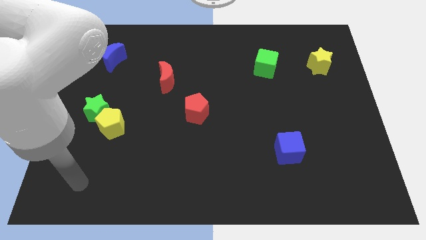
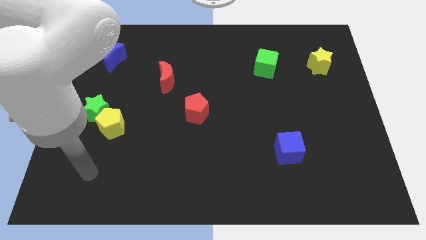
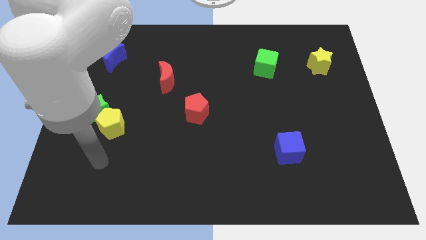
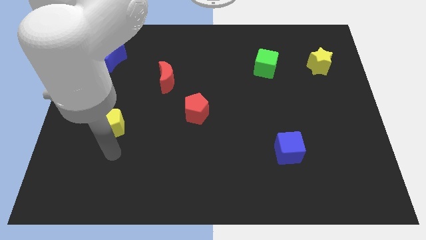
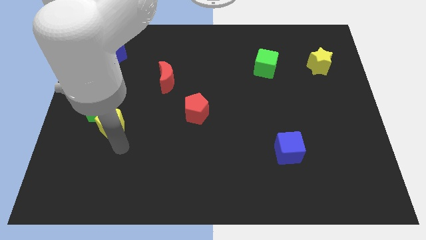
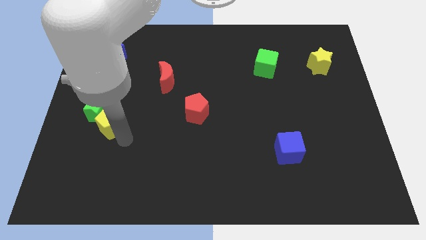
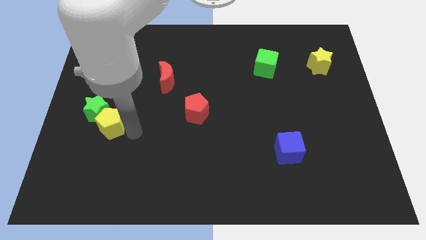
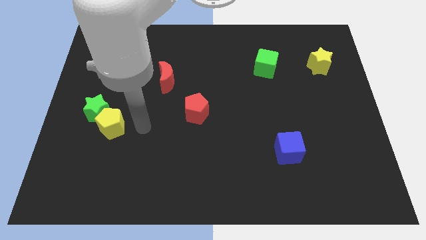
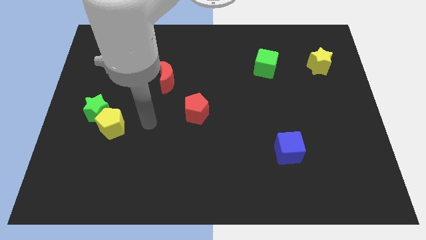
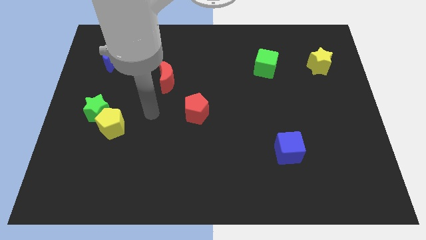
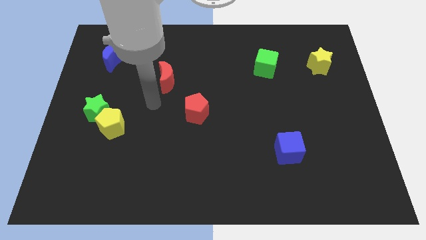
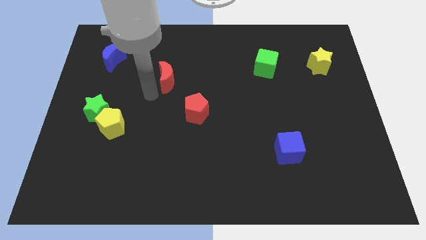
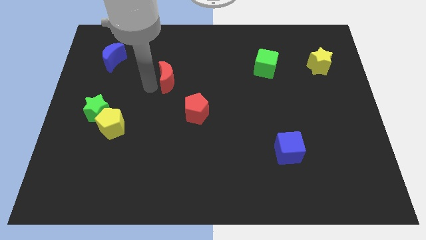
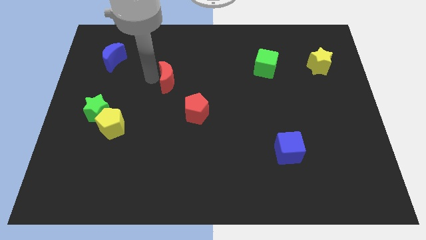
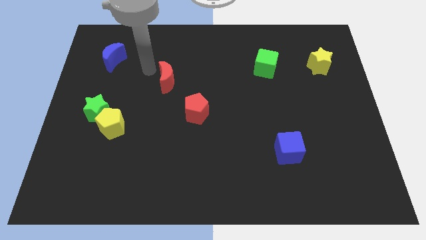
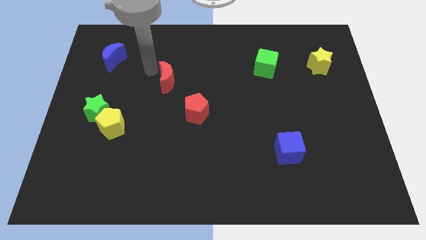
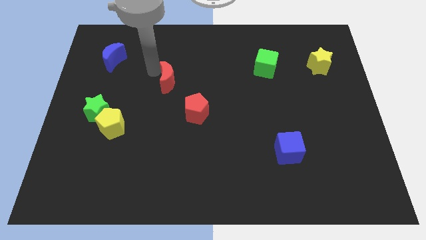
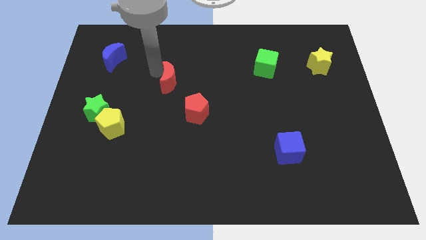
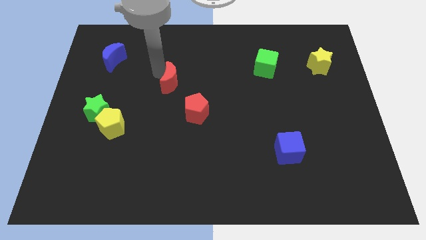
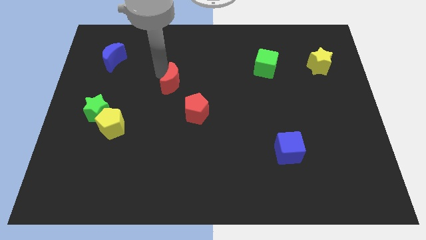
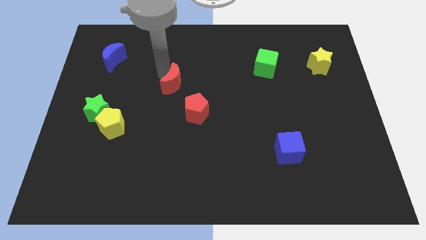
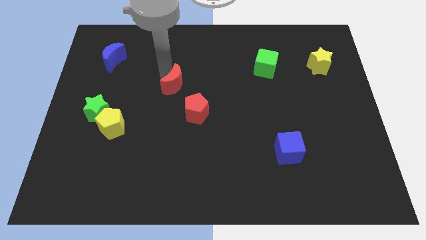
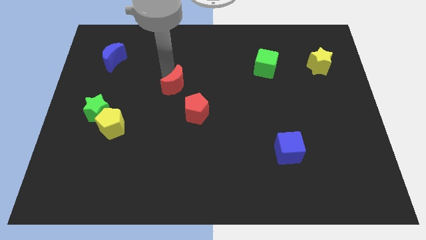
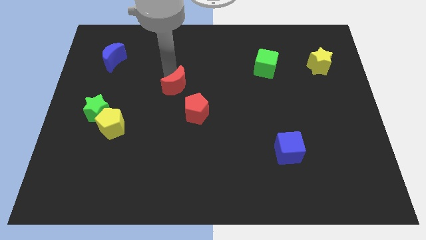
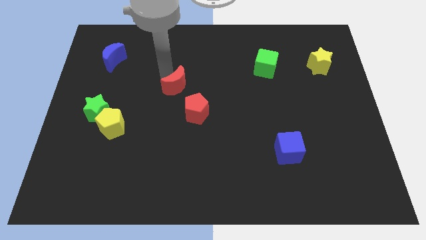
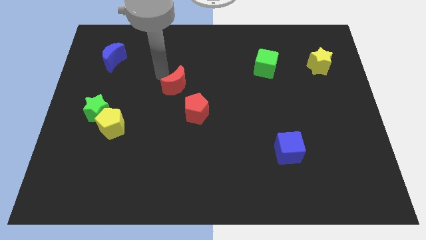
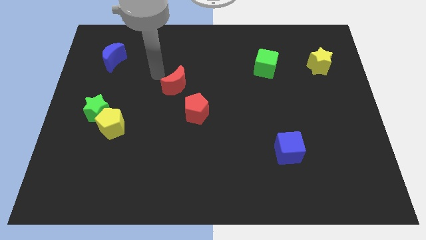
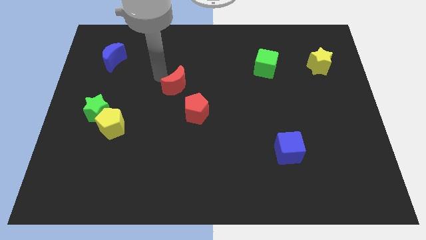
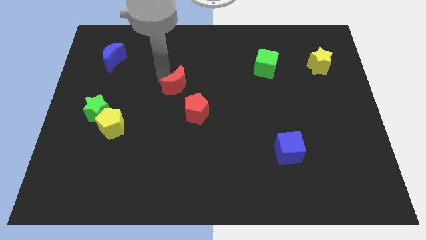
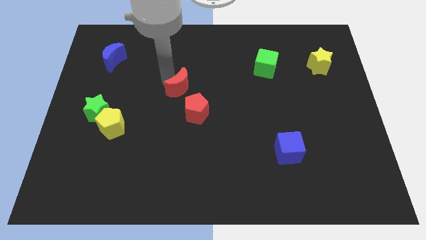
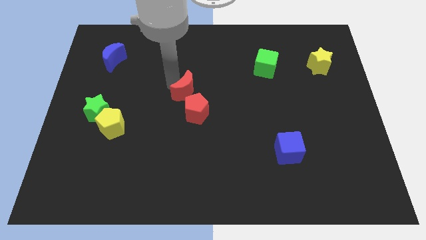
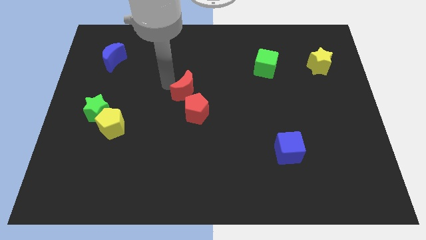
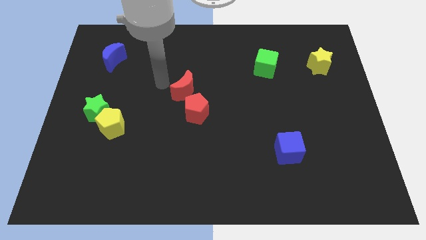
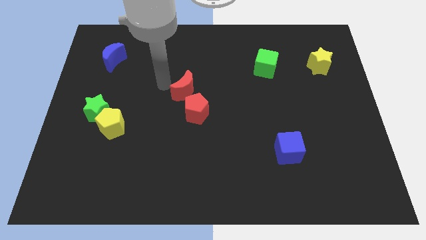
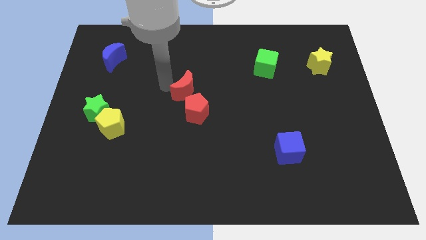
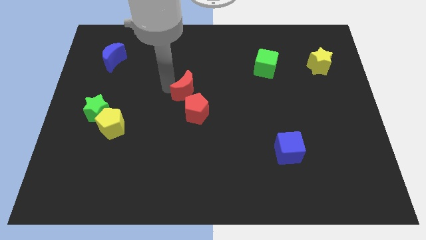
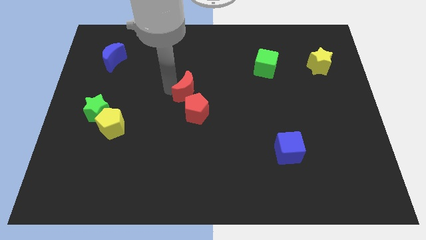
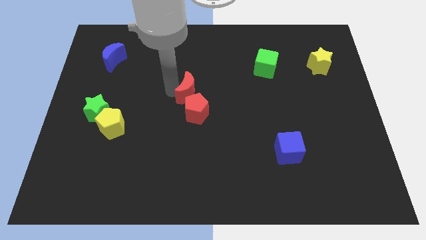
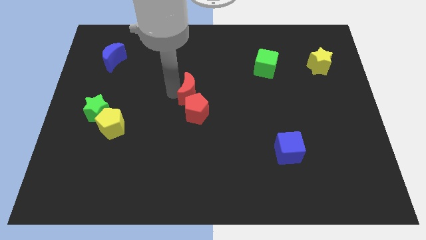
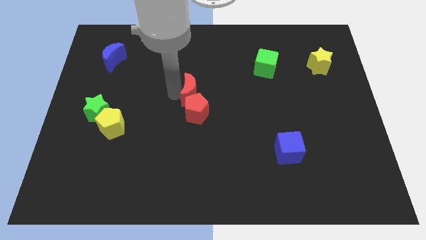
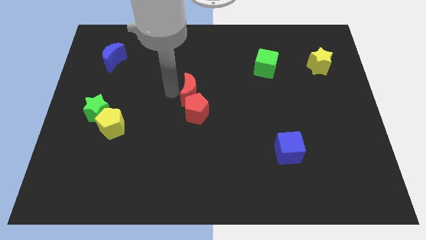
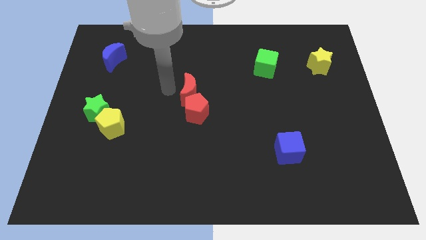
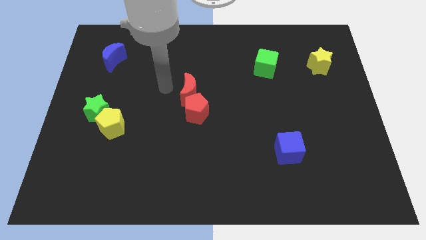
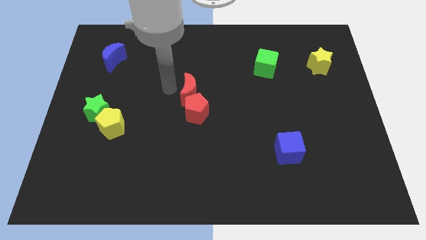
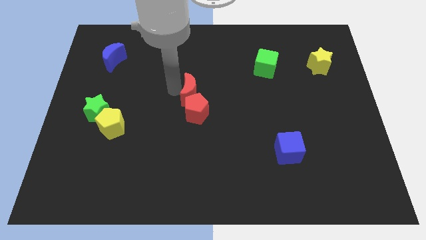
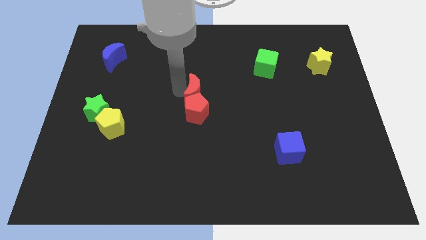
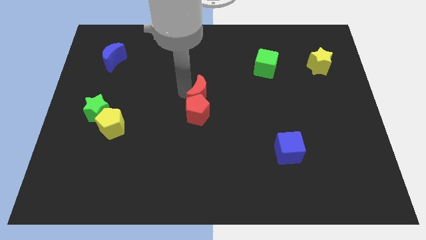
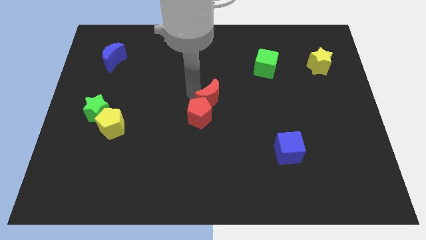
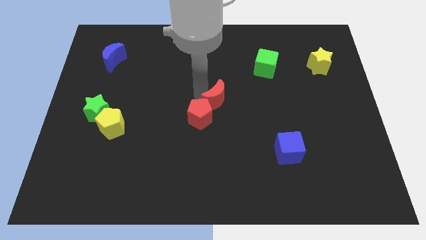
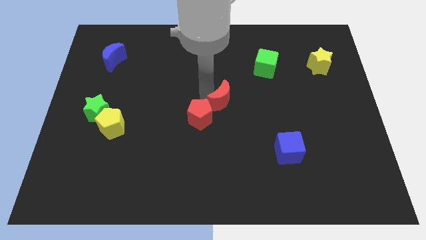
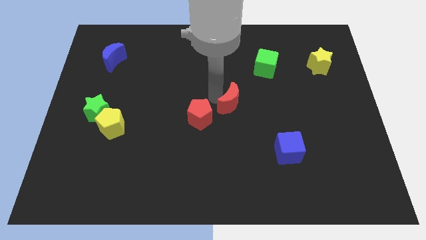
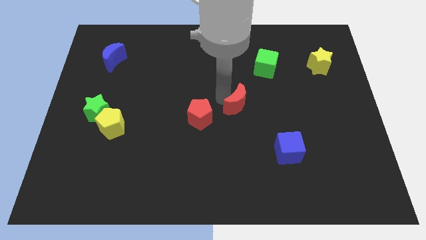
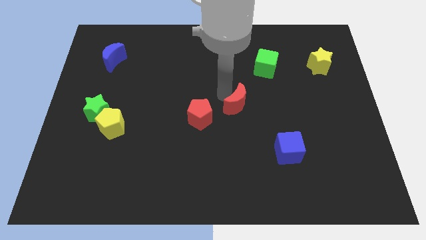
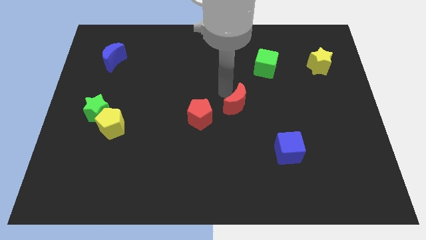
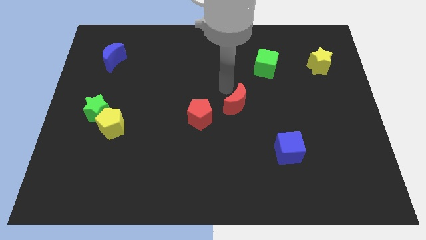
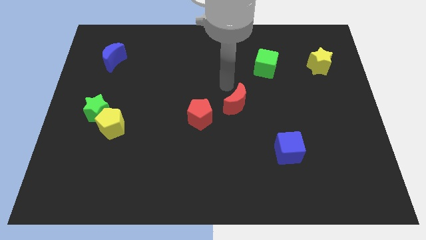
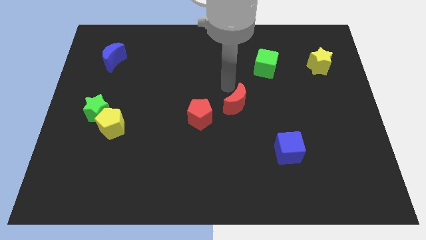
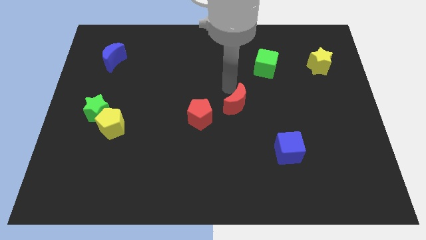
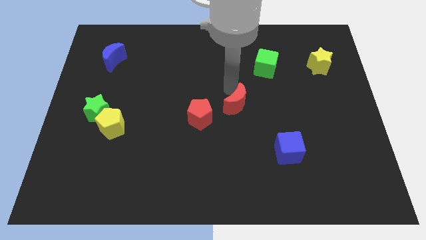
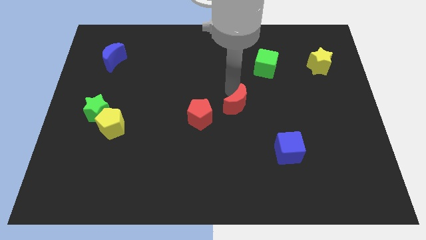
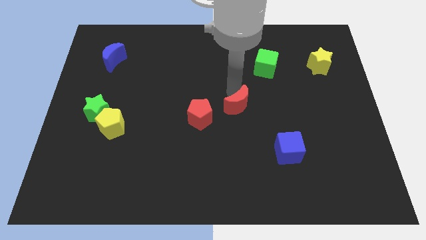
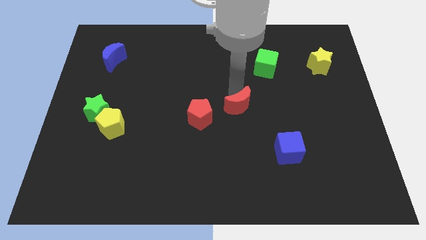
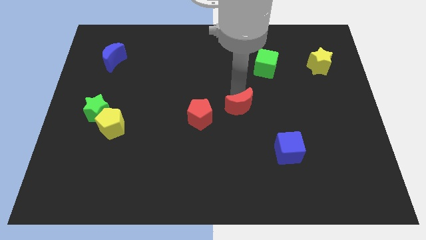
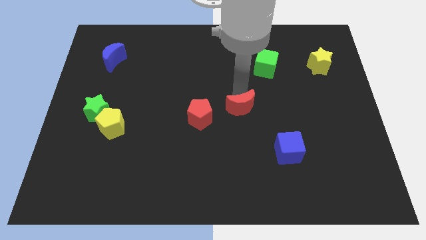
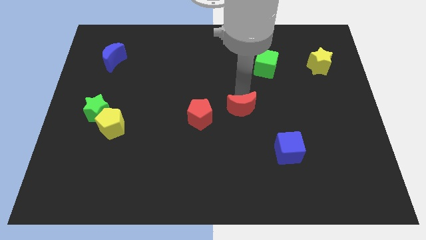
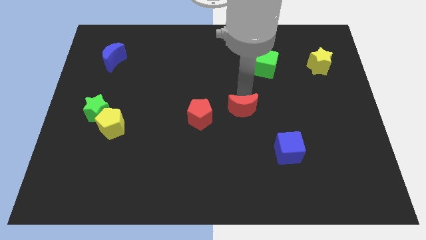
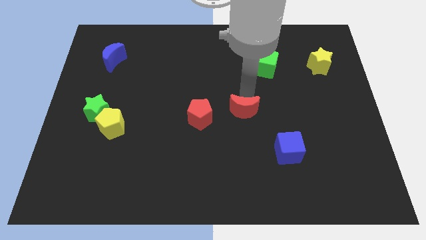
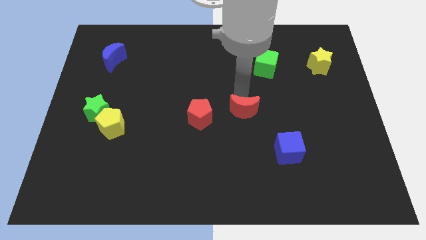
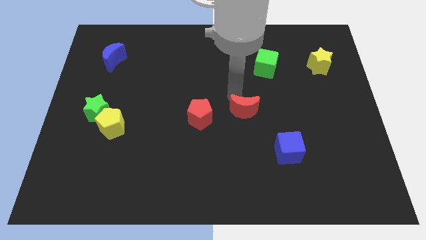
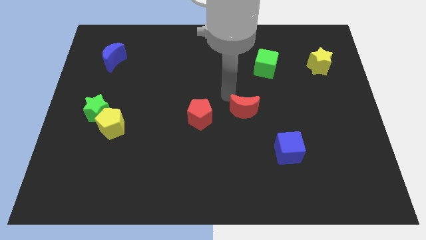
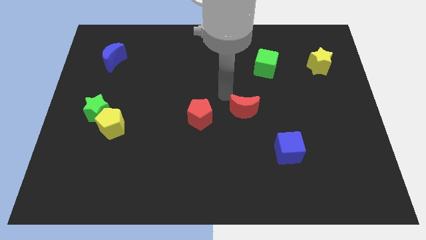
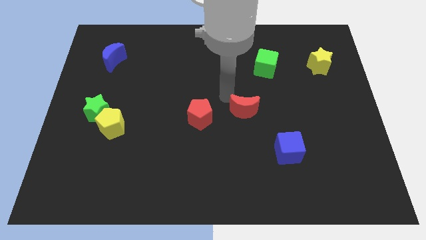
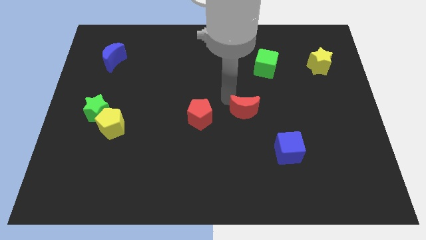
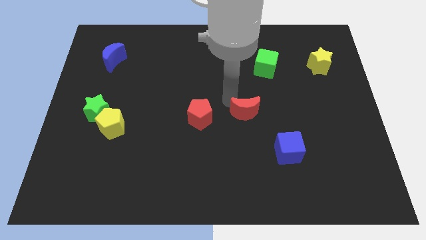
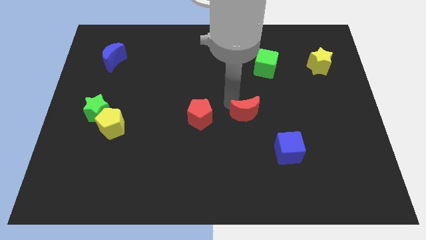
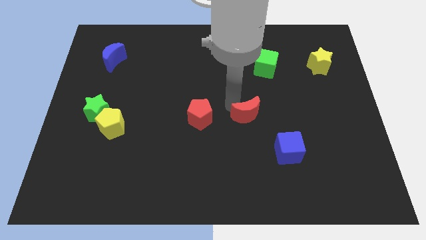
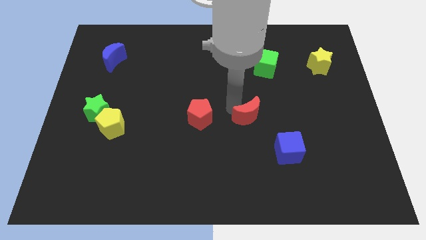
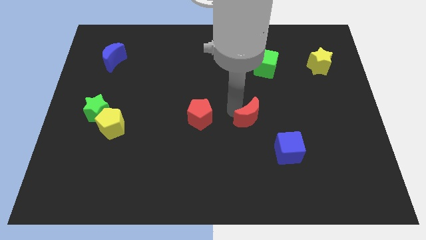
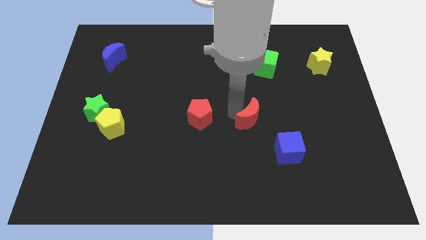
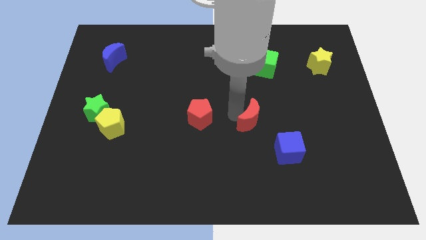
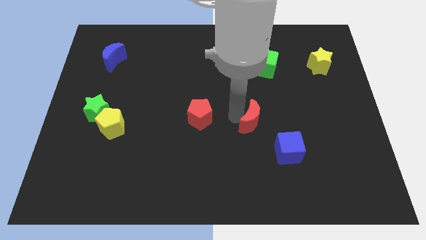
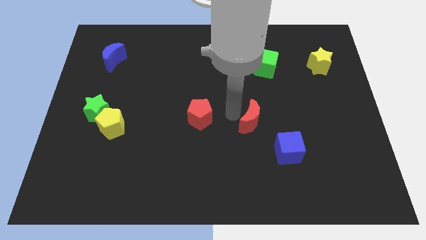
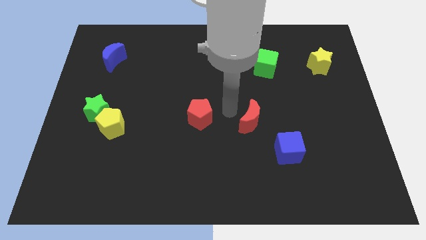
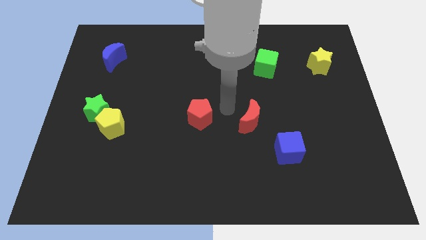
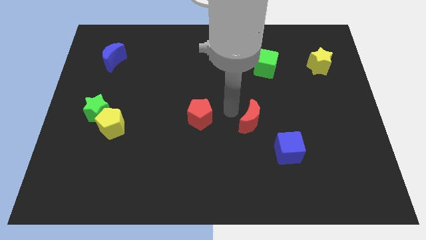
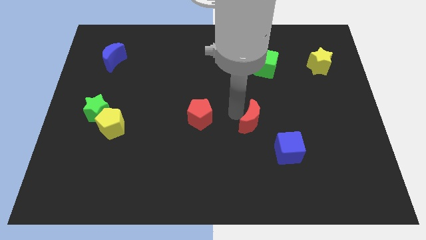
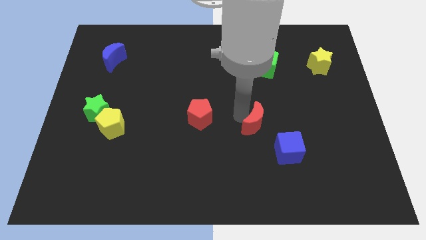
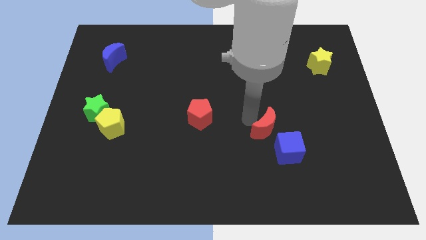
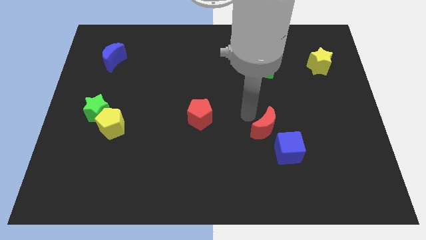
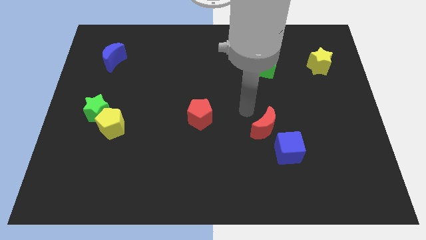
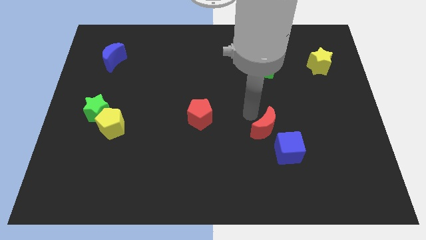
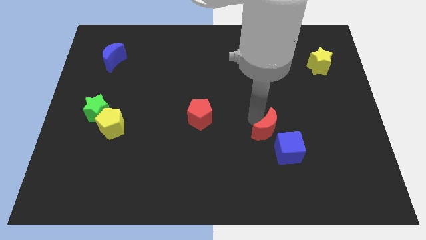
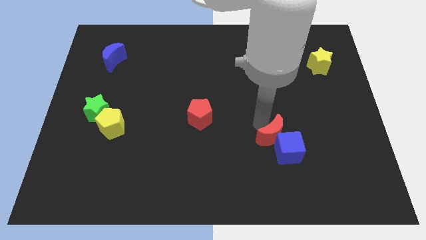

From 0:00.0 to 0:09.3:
push the red moon towards the blue cube
